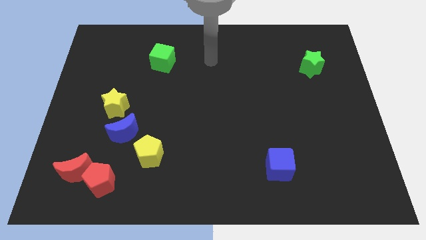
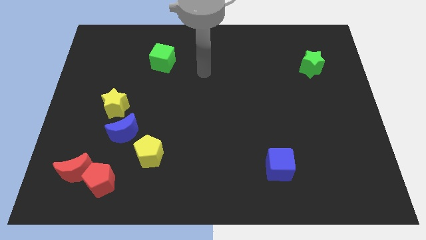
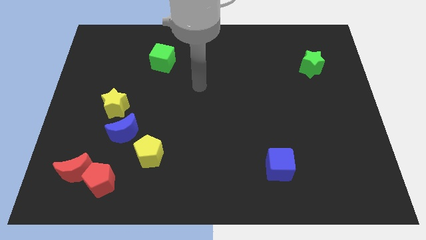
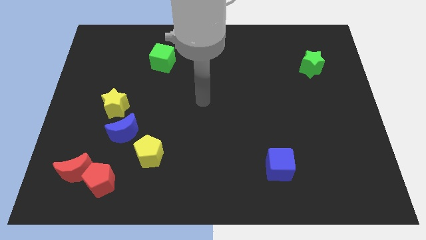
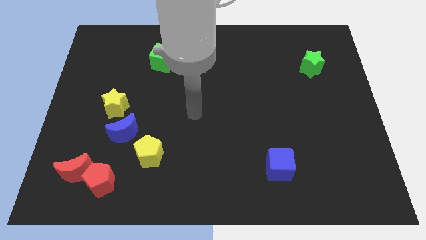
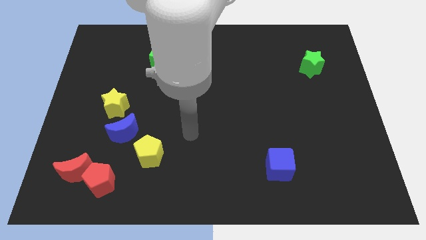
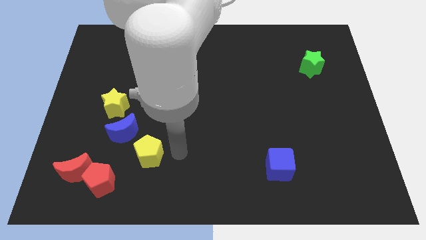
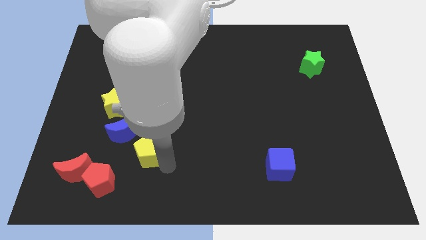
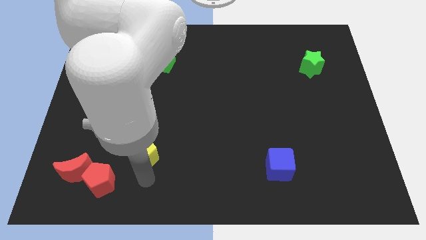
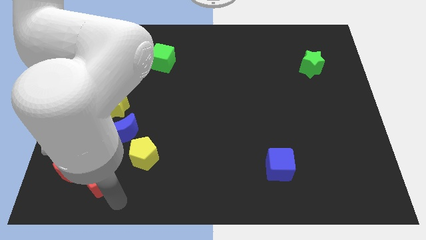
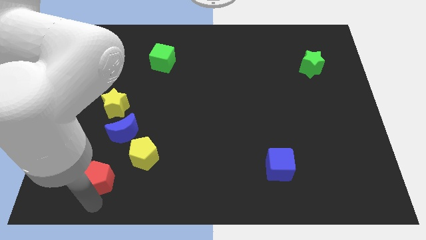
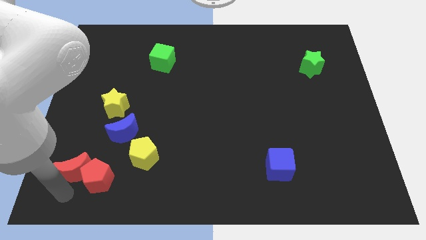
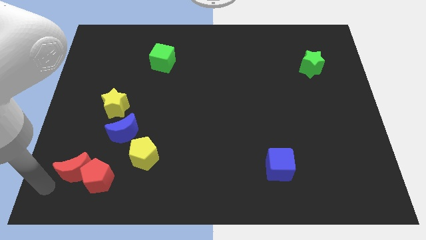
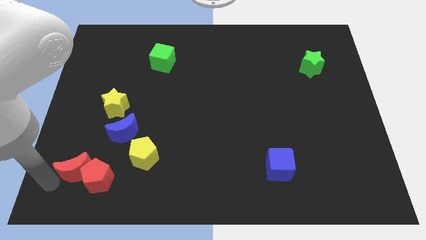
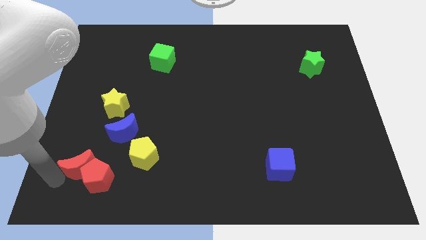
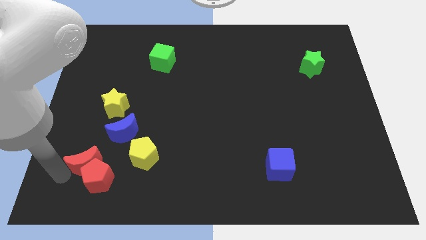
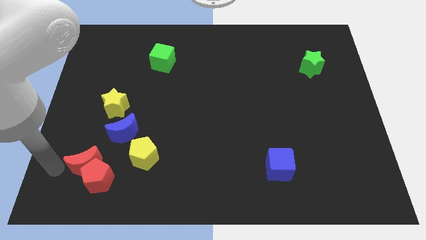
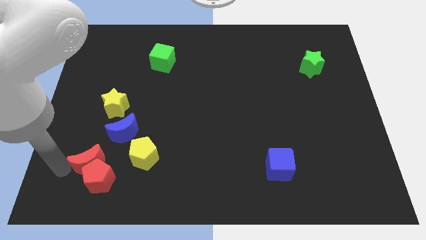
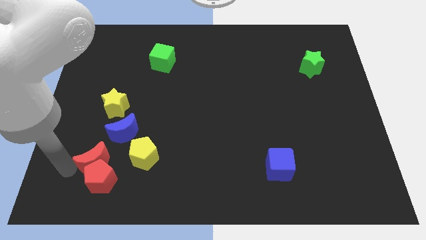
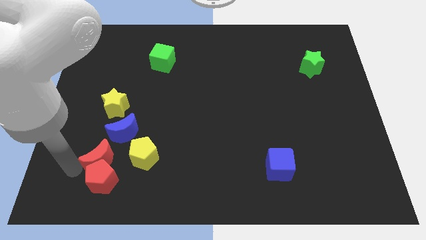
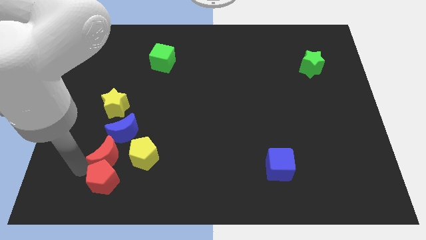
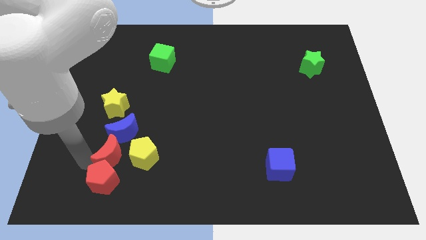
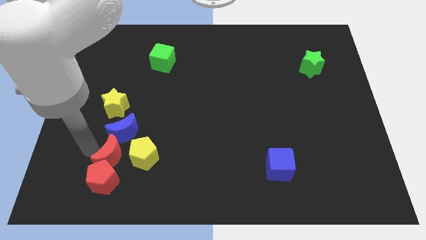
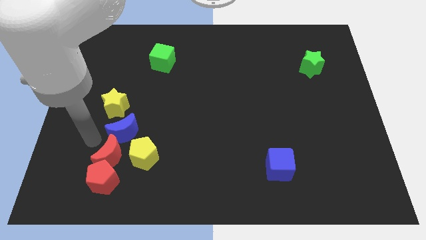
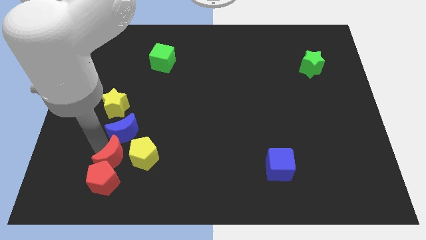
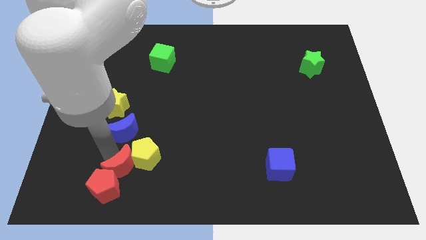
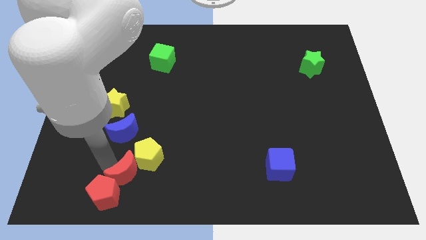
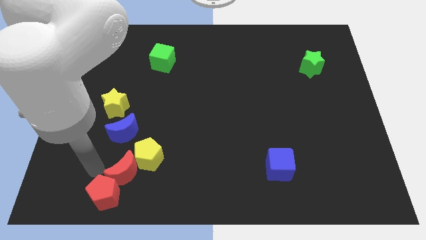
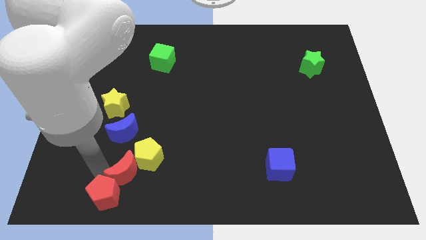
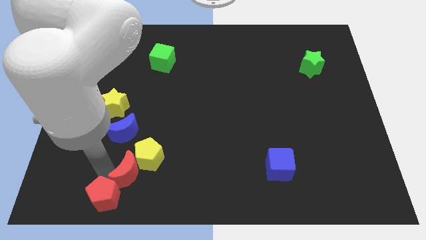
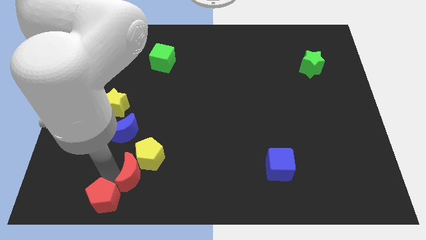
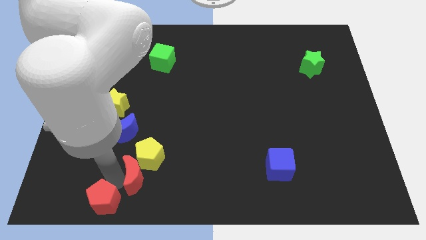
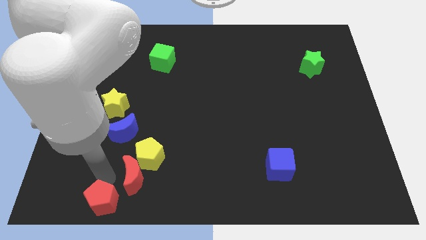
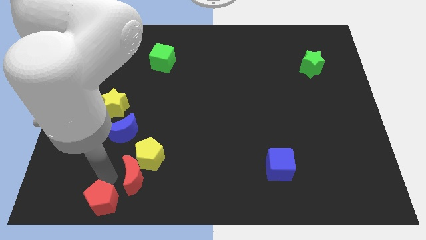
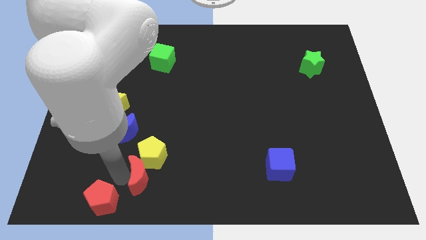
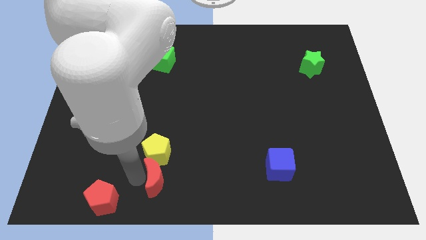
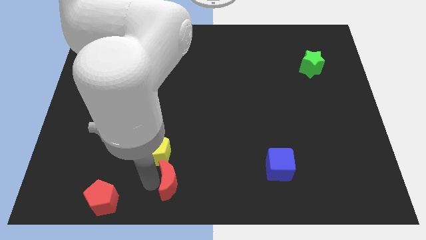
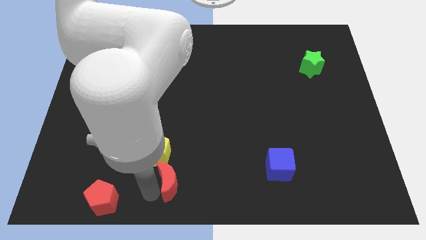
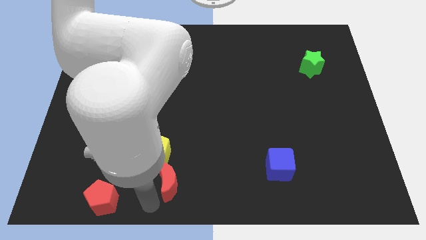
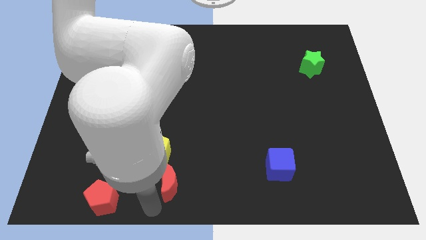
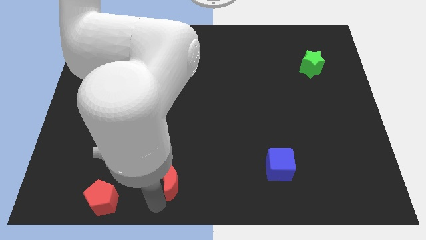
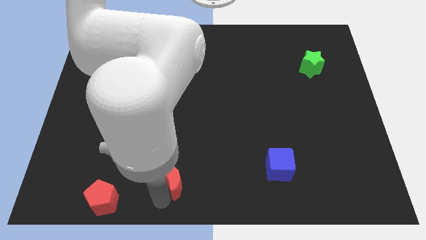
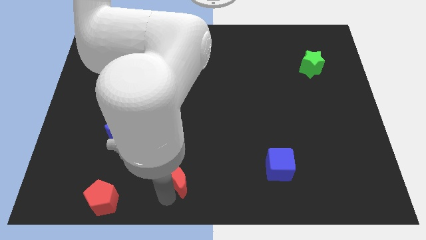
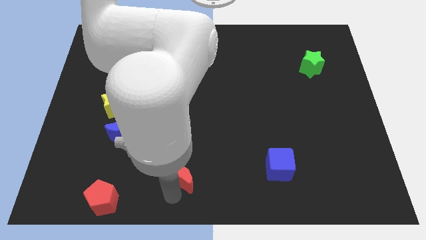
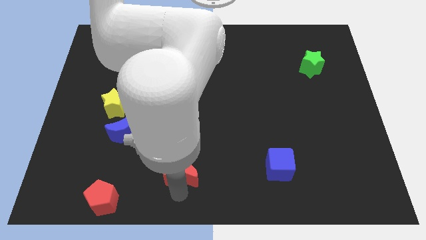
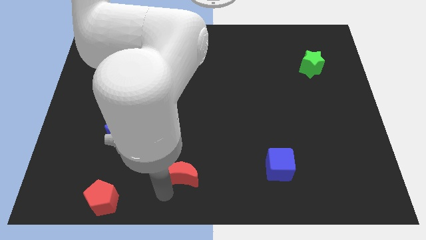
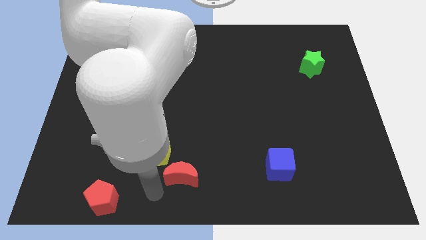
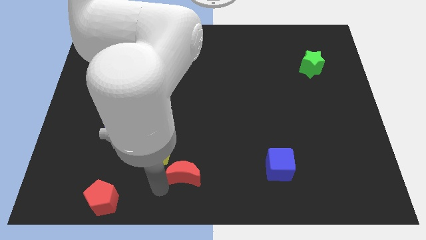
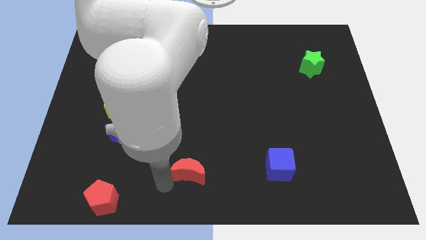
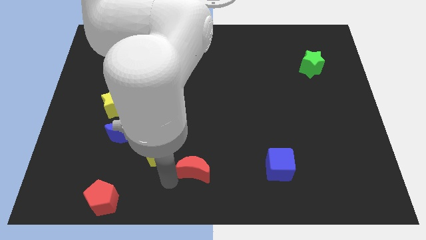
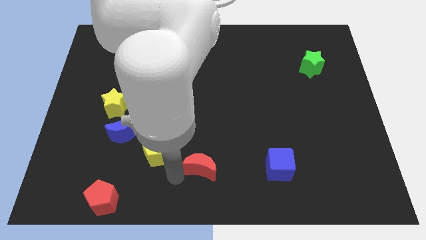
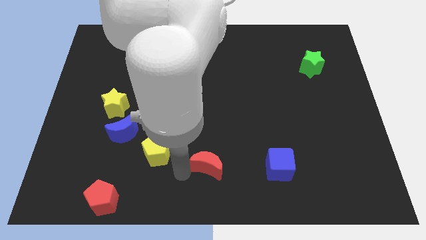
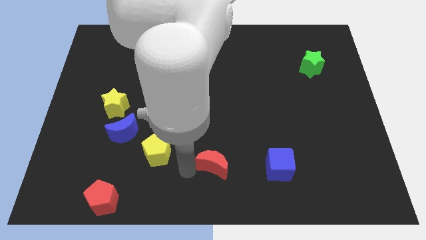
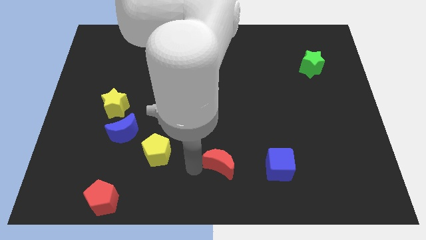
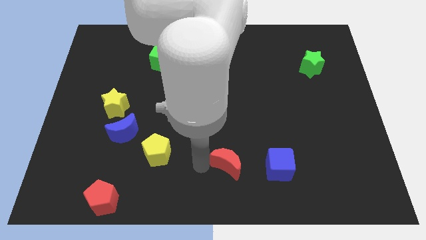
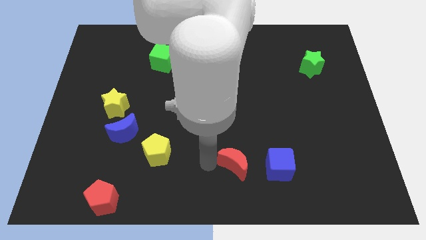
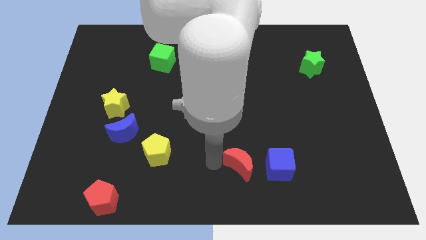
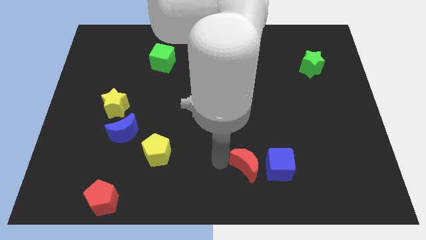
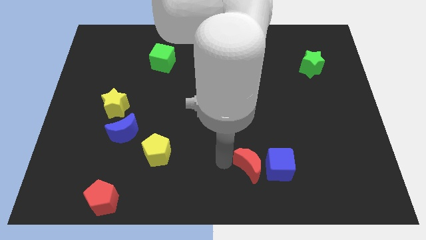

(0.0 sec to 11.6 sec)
move the red moon close to the blue cube
